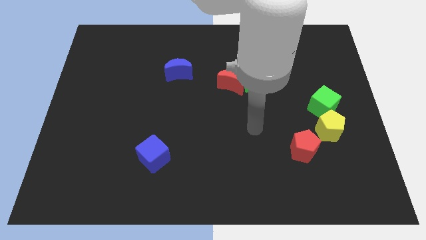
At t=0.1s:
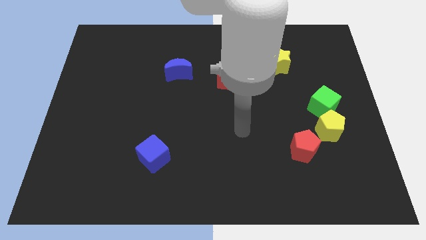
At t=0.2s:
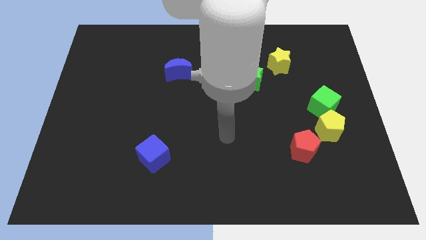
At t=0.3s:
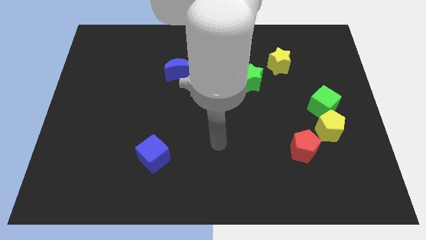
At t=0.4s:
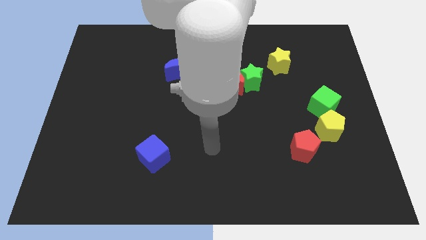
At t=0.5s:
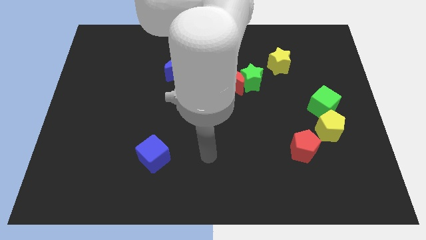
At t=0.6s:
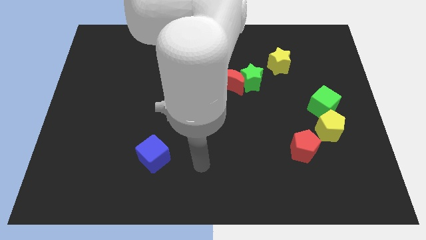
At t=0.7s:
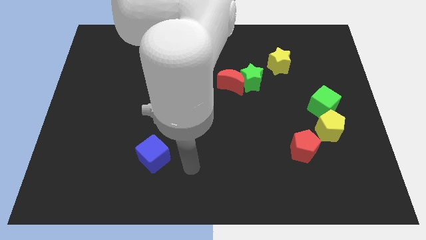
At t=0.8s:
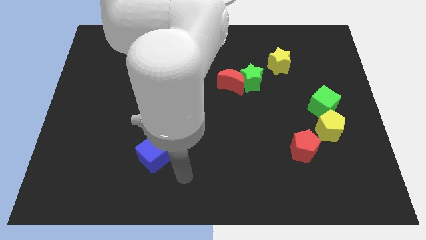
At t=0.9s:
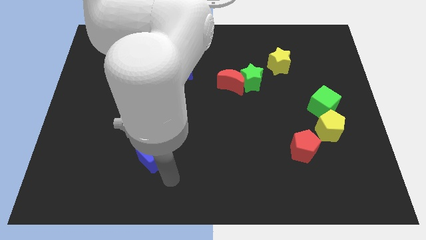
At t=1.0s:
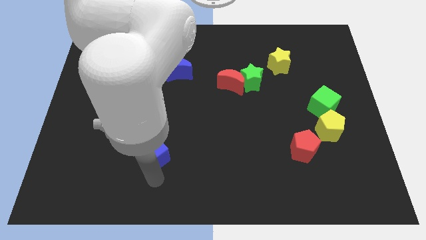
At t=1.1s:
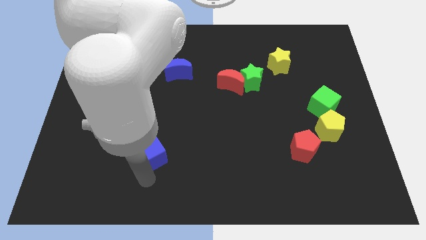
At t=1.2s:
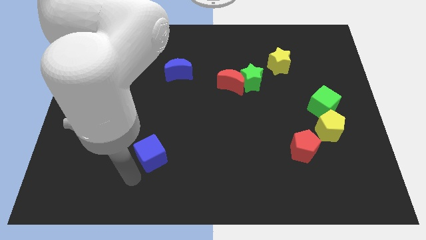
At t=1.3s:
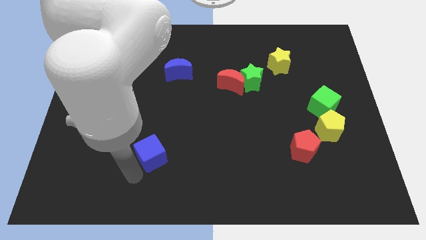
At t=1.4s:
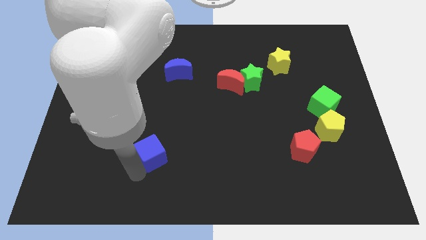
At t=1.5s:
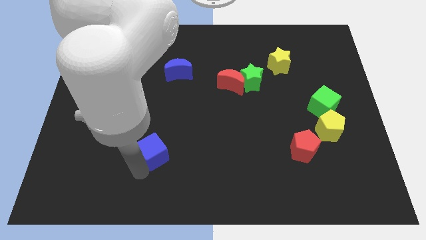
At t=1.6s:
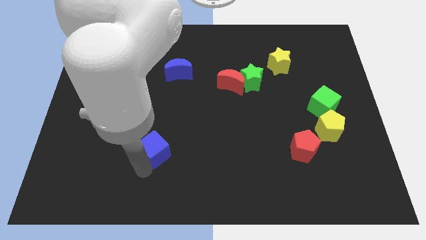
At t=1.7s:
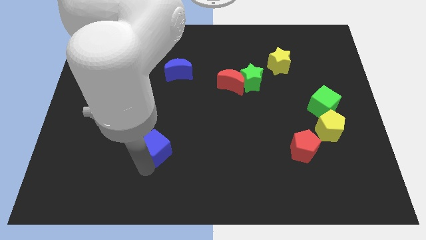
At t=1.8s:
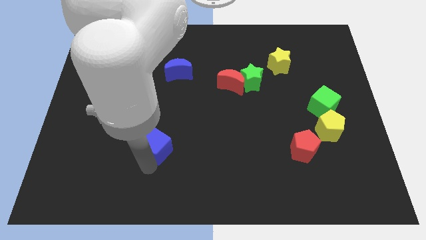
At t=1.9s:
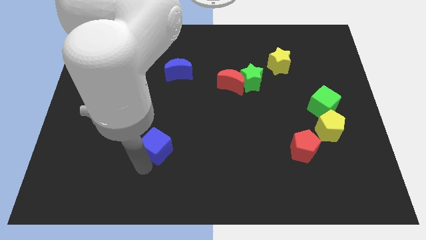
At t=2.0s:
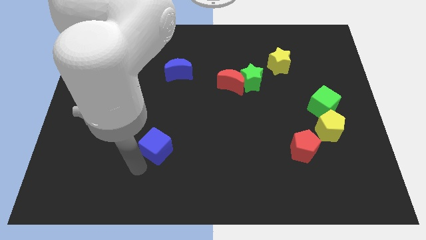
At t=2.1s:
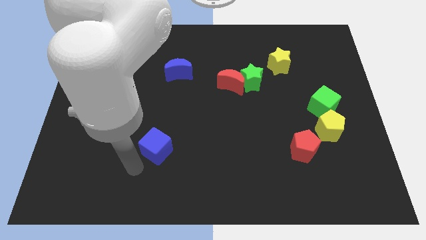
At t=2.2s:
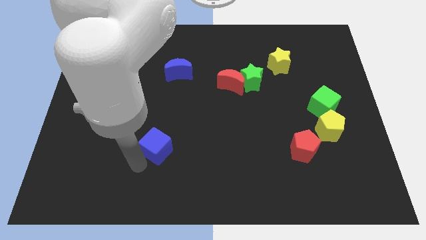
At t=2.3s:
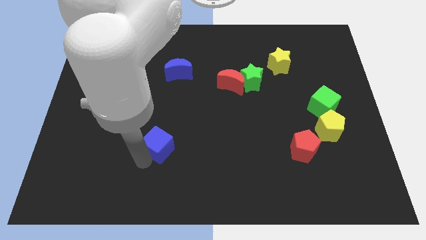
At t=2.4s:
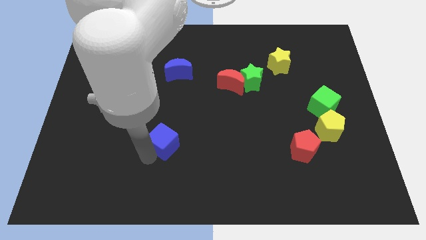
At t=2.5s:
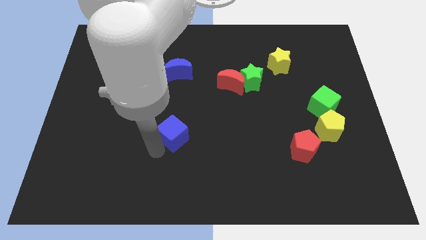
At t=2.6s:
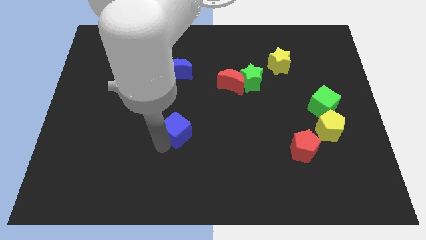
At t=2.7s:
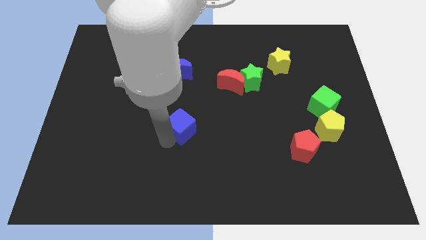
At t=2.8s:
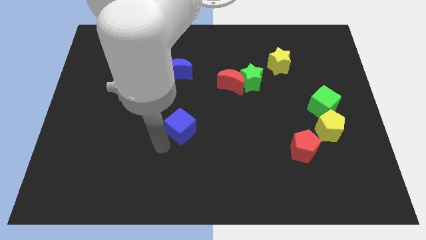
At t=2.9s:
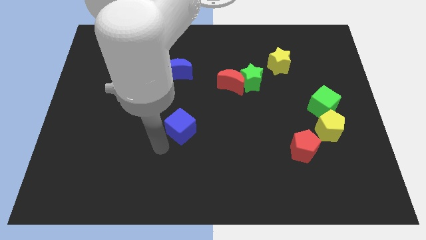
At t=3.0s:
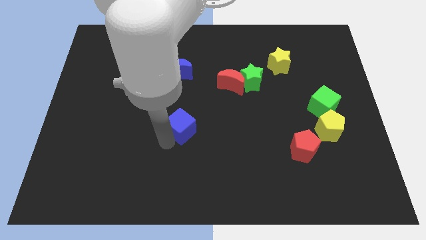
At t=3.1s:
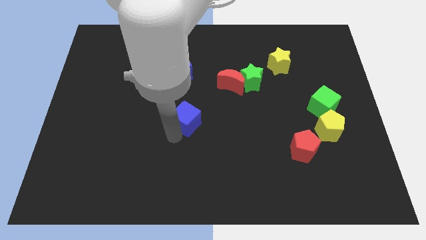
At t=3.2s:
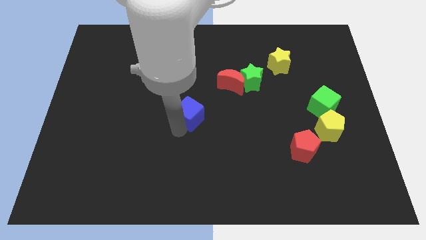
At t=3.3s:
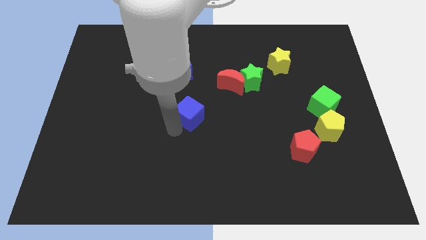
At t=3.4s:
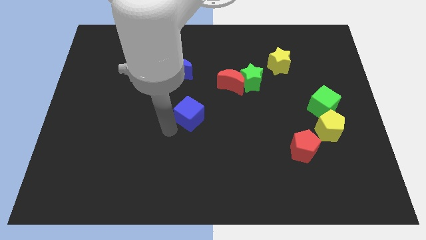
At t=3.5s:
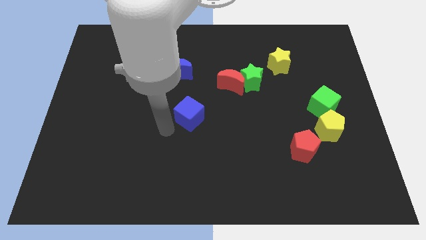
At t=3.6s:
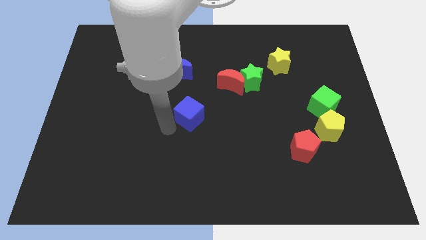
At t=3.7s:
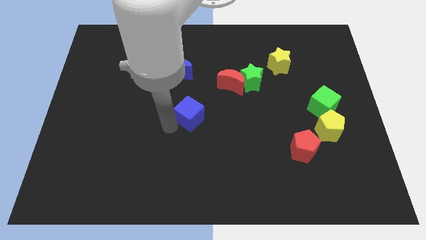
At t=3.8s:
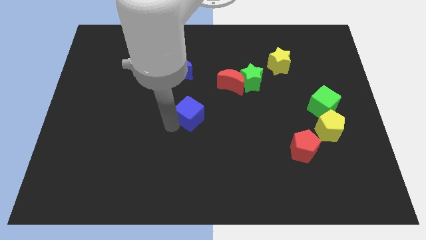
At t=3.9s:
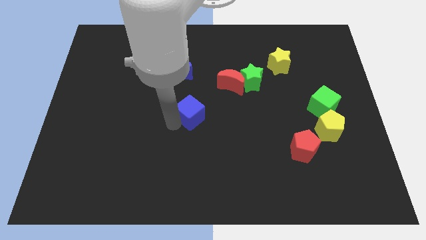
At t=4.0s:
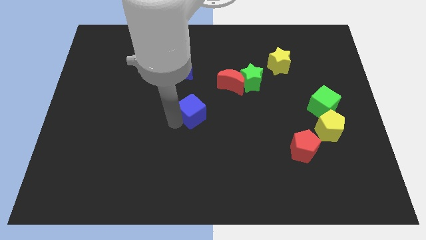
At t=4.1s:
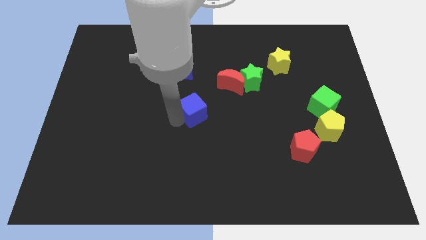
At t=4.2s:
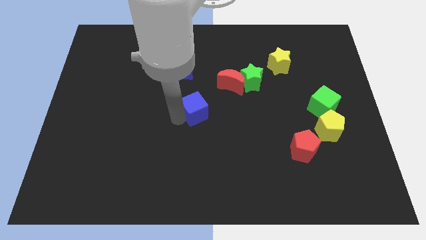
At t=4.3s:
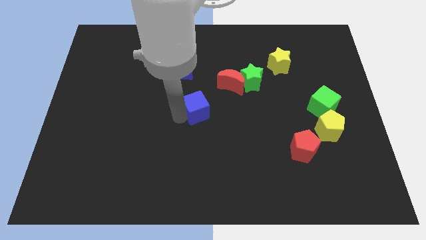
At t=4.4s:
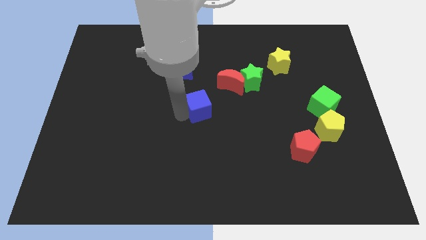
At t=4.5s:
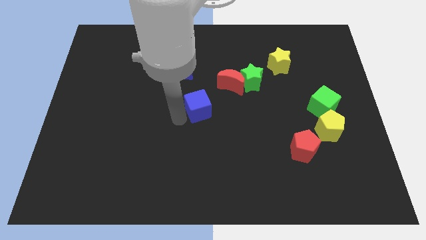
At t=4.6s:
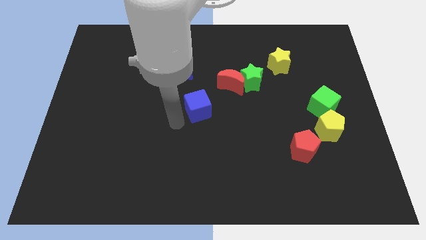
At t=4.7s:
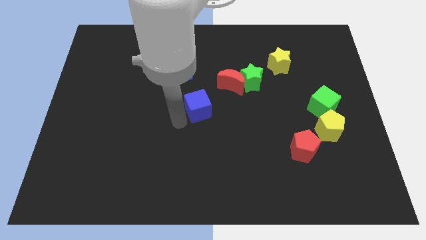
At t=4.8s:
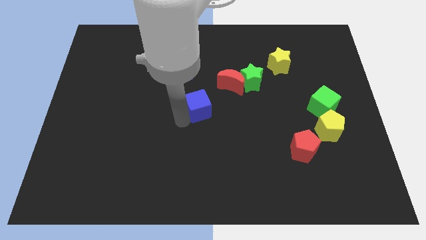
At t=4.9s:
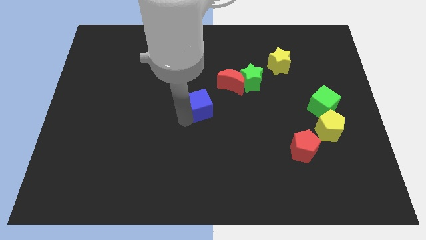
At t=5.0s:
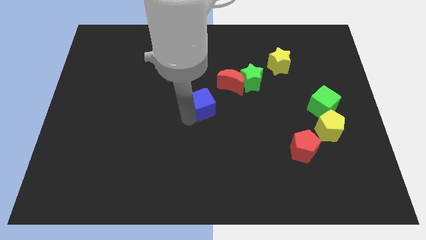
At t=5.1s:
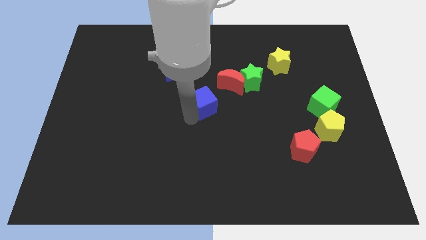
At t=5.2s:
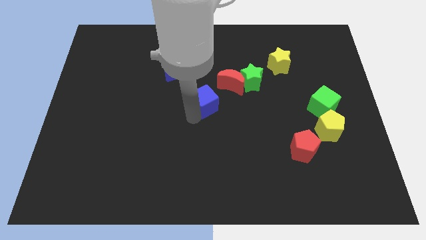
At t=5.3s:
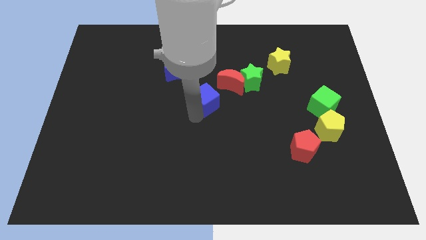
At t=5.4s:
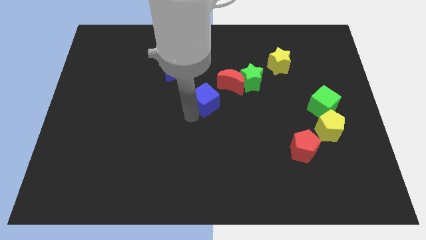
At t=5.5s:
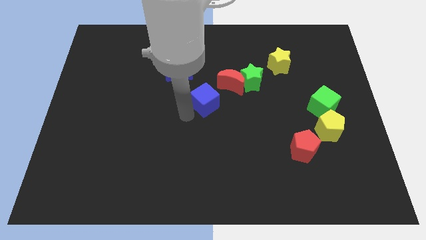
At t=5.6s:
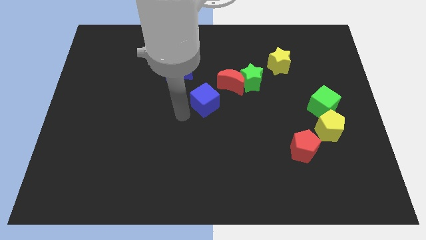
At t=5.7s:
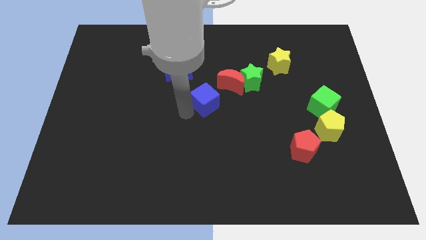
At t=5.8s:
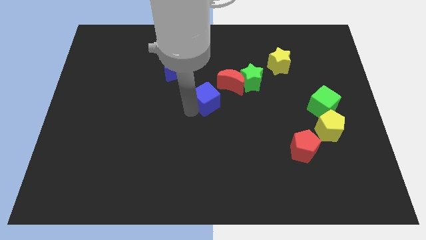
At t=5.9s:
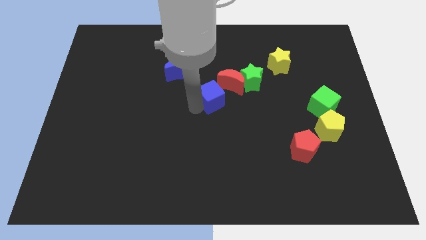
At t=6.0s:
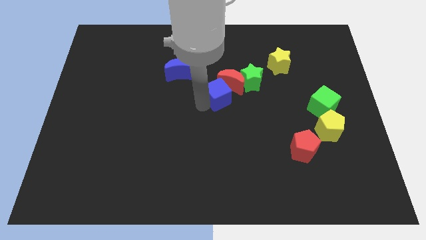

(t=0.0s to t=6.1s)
move the blue cube close to the red moon

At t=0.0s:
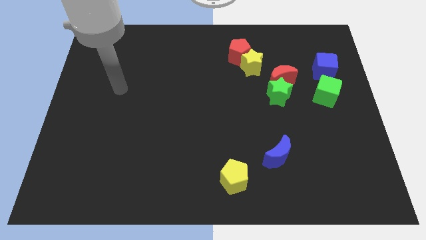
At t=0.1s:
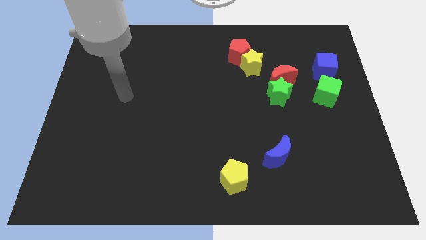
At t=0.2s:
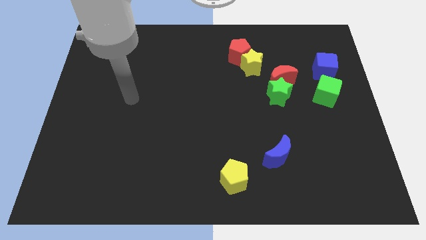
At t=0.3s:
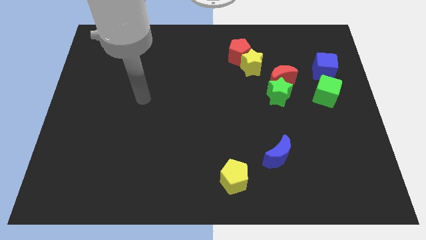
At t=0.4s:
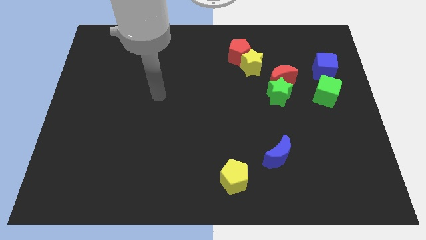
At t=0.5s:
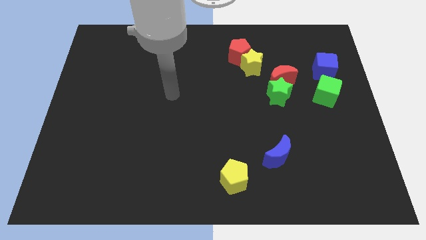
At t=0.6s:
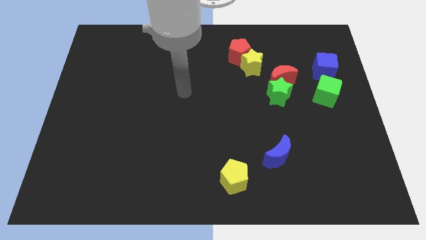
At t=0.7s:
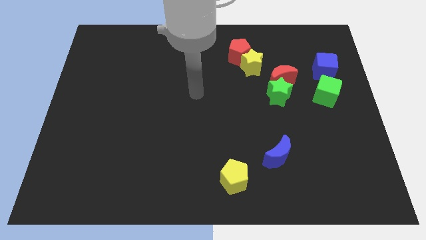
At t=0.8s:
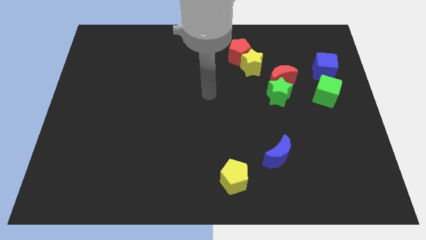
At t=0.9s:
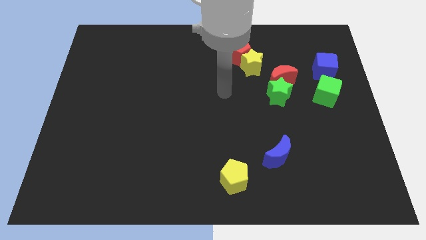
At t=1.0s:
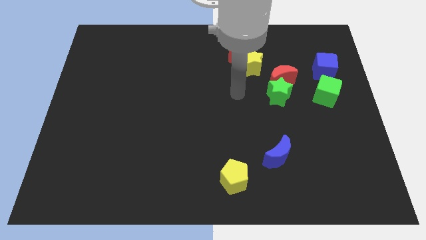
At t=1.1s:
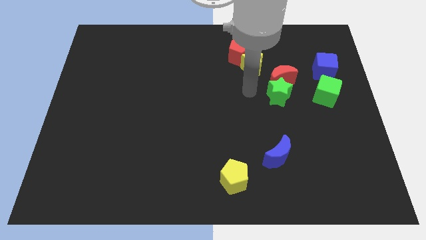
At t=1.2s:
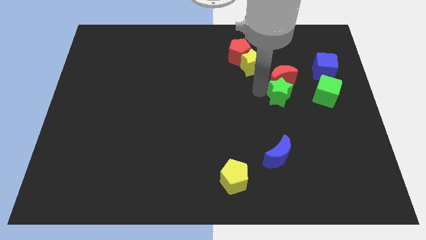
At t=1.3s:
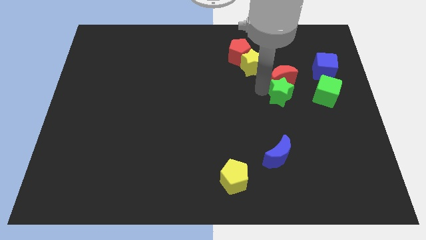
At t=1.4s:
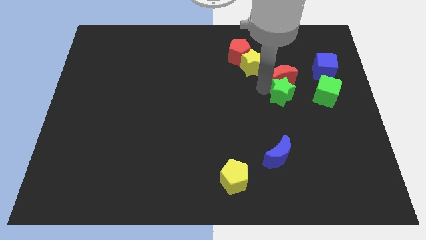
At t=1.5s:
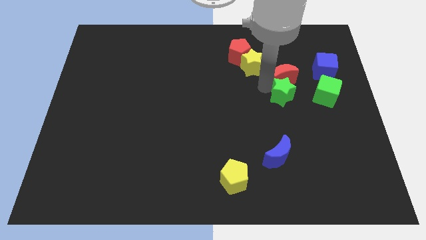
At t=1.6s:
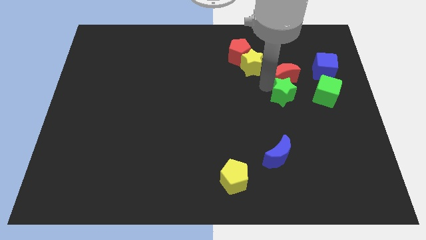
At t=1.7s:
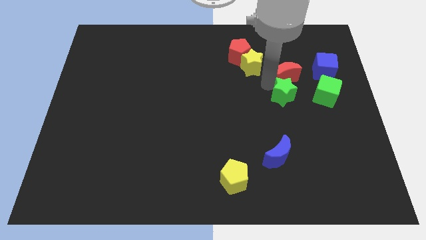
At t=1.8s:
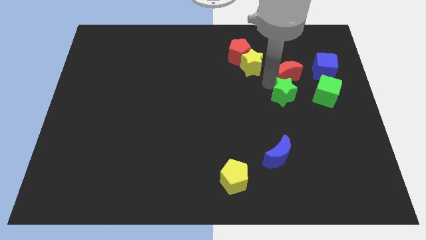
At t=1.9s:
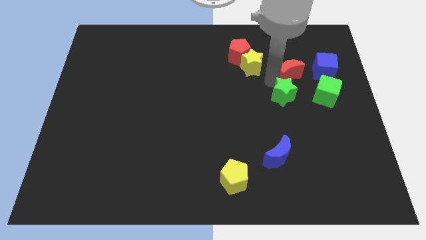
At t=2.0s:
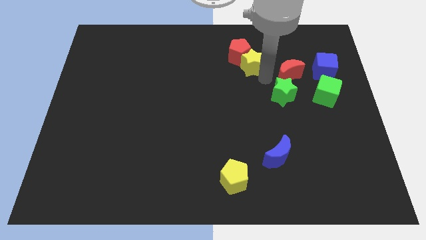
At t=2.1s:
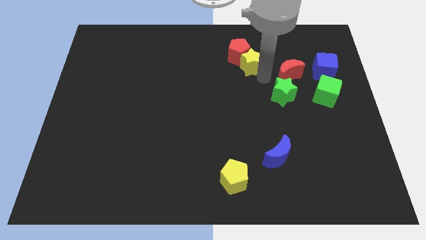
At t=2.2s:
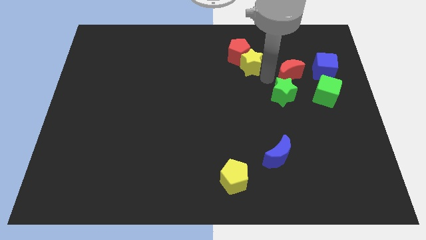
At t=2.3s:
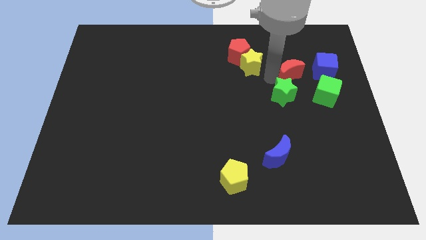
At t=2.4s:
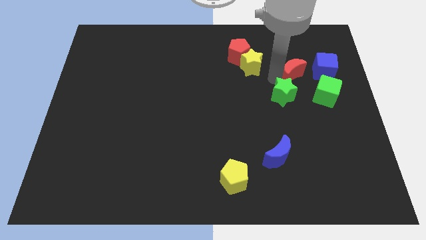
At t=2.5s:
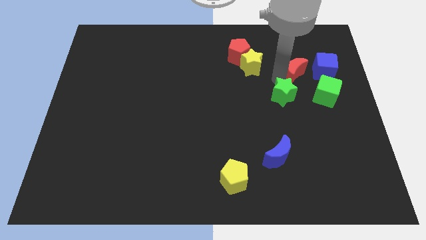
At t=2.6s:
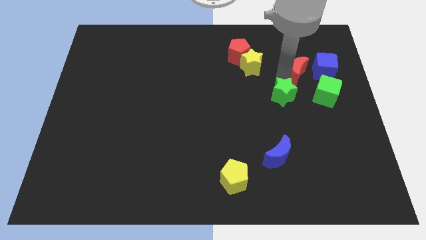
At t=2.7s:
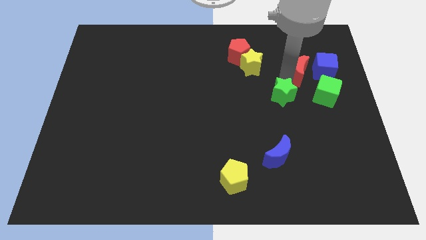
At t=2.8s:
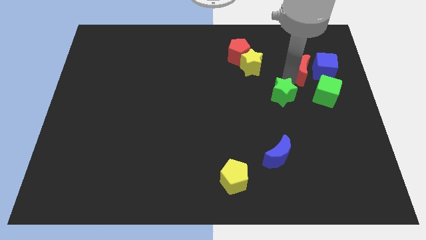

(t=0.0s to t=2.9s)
put the red moon towards the blue cube
